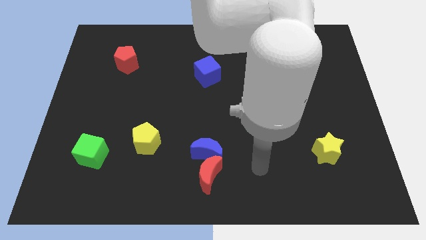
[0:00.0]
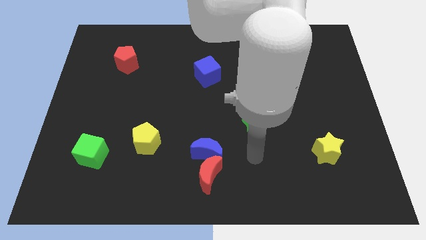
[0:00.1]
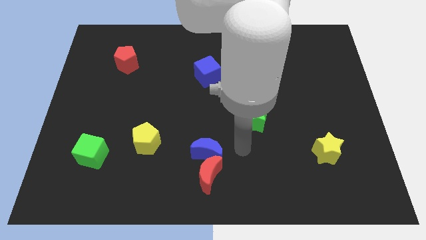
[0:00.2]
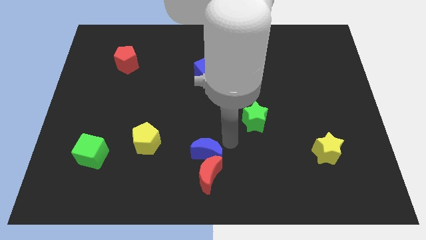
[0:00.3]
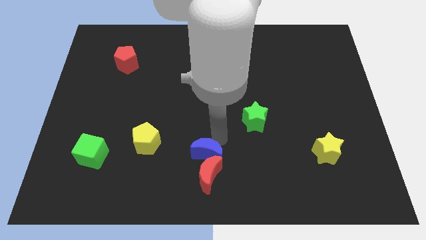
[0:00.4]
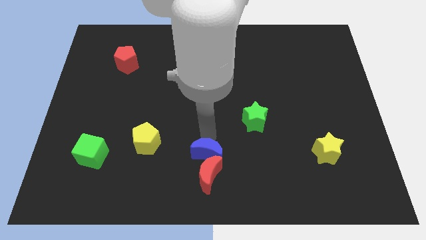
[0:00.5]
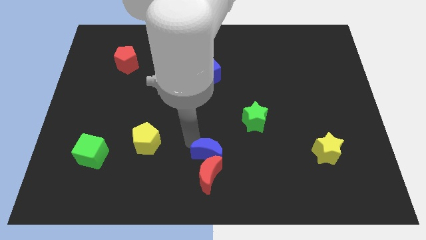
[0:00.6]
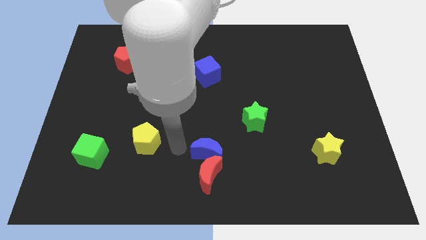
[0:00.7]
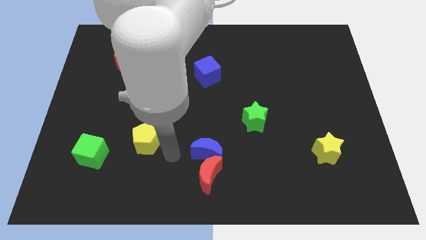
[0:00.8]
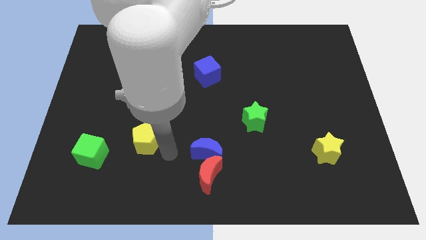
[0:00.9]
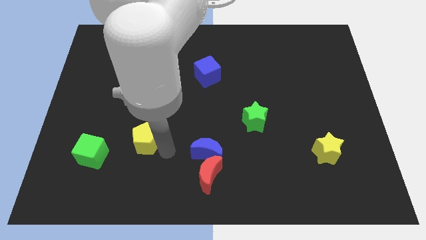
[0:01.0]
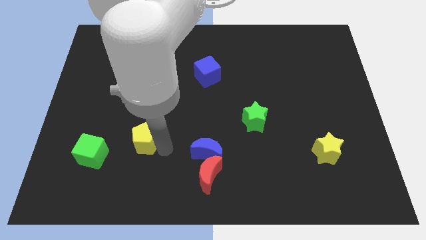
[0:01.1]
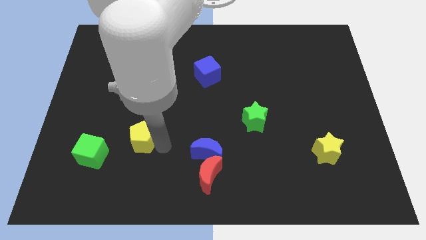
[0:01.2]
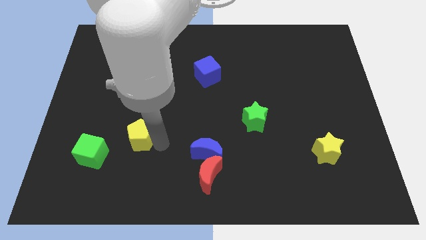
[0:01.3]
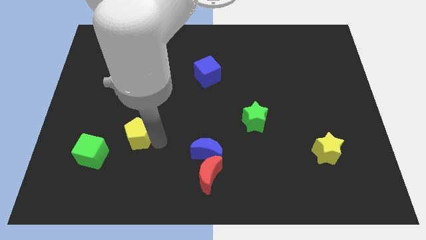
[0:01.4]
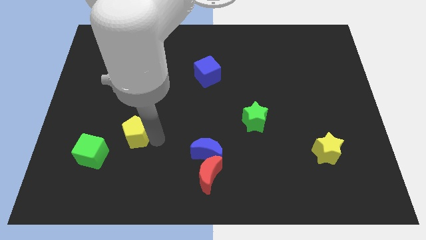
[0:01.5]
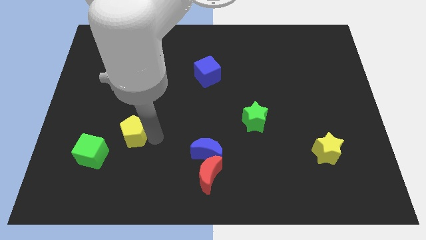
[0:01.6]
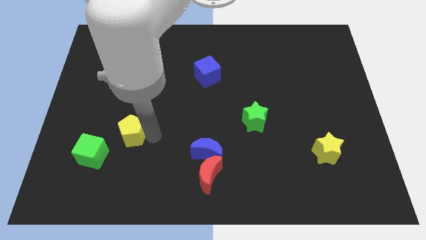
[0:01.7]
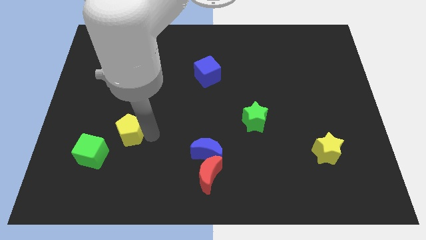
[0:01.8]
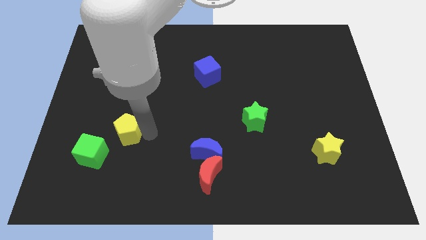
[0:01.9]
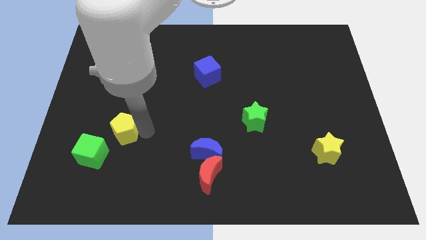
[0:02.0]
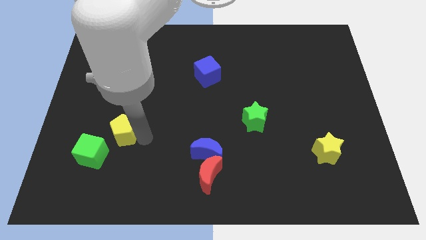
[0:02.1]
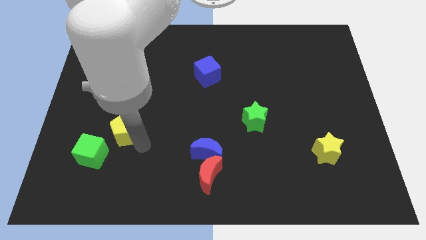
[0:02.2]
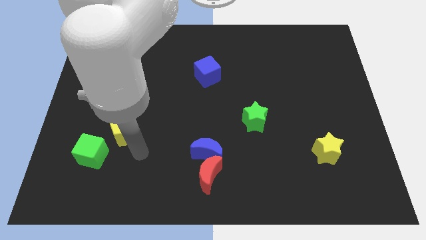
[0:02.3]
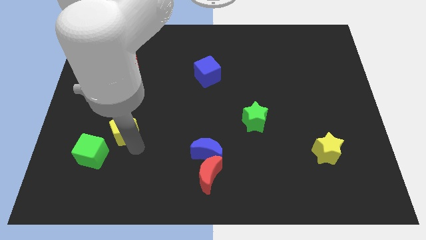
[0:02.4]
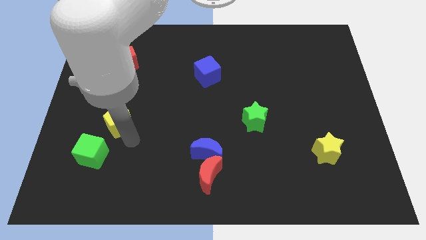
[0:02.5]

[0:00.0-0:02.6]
push the yellow pentagon upwards and then left a little

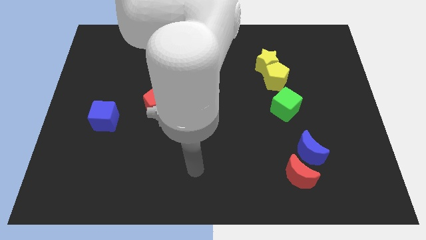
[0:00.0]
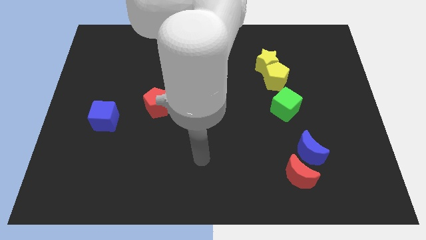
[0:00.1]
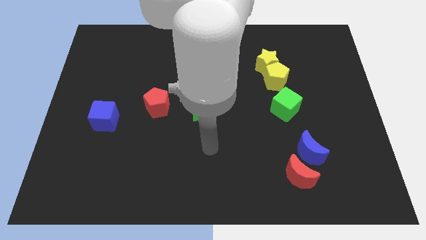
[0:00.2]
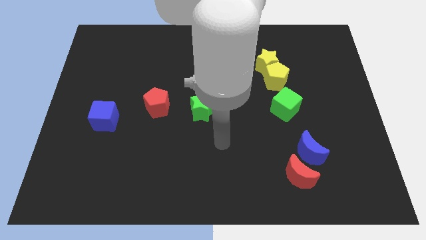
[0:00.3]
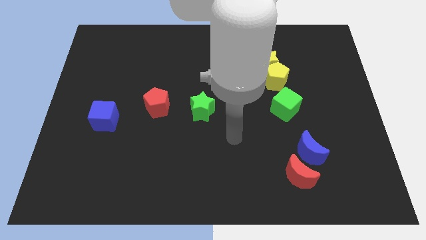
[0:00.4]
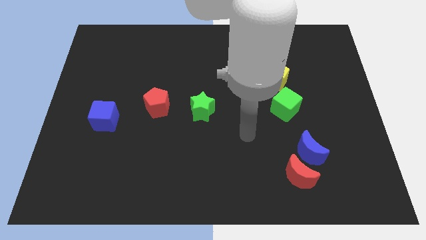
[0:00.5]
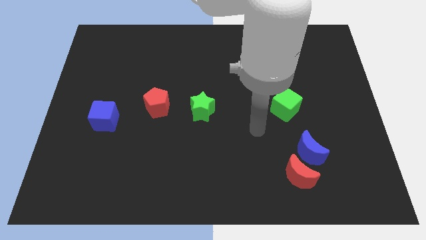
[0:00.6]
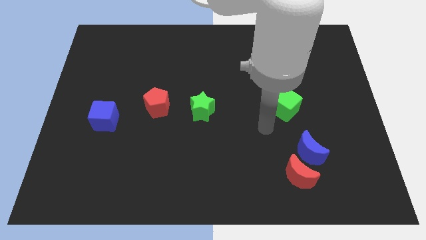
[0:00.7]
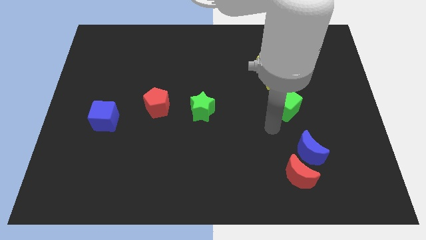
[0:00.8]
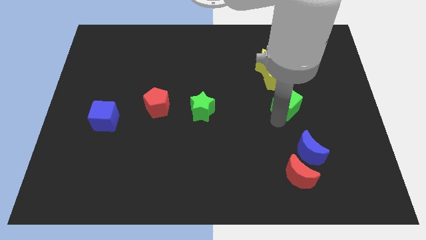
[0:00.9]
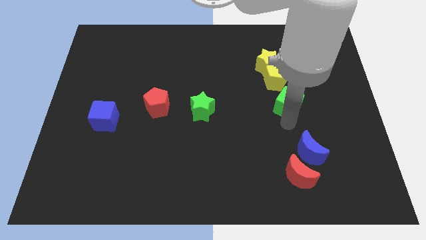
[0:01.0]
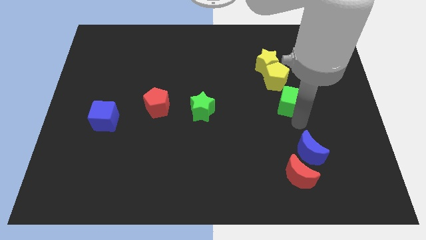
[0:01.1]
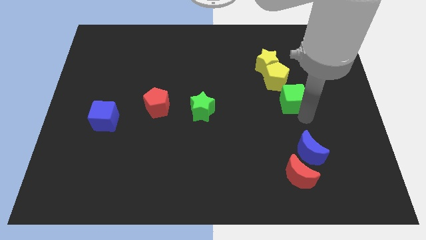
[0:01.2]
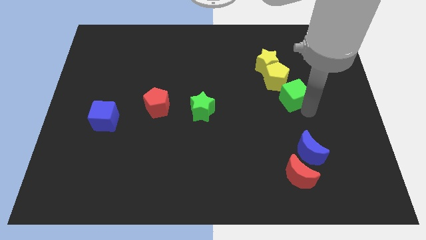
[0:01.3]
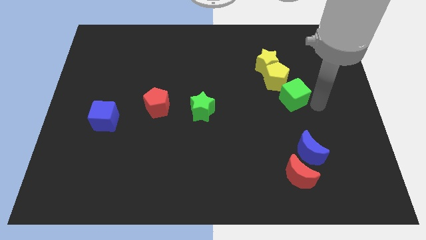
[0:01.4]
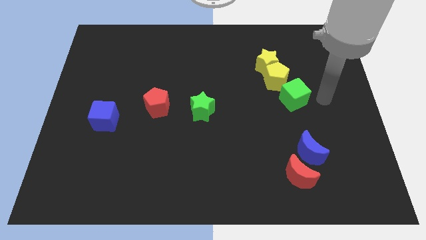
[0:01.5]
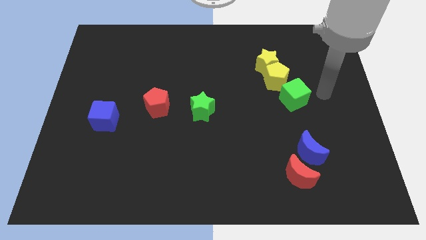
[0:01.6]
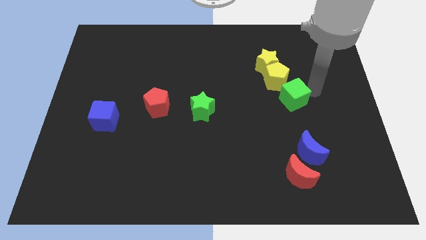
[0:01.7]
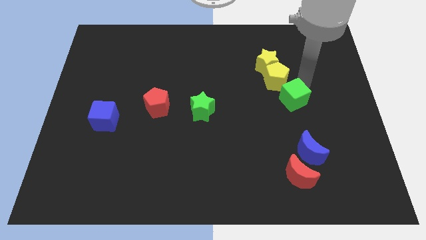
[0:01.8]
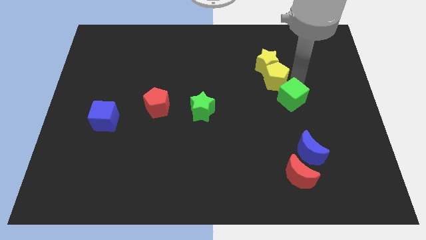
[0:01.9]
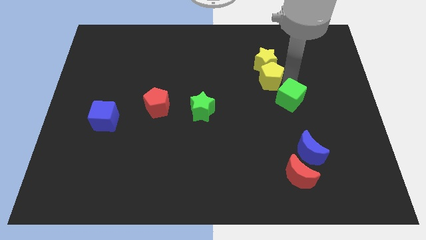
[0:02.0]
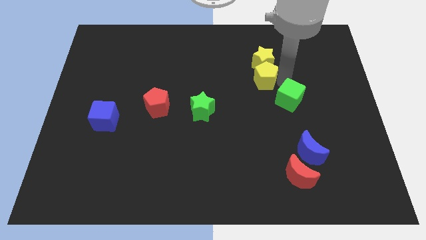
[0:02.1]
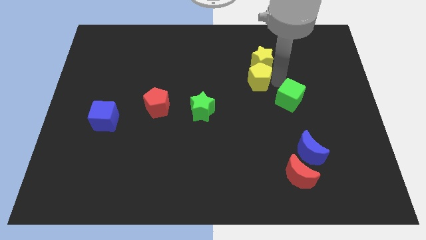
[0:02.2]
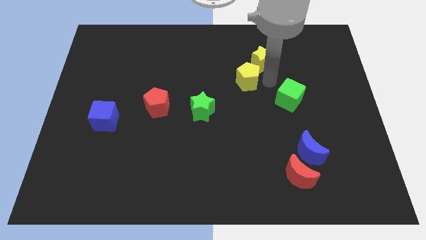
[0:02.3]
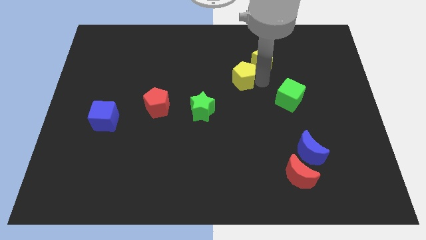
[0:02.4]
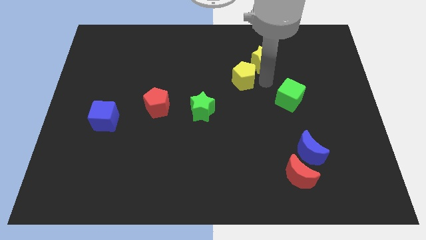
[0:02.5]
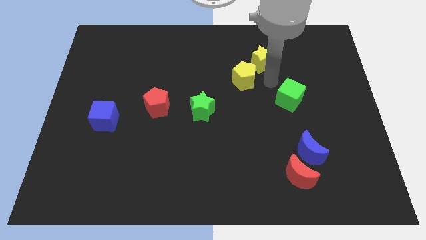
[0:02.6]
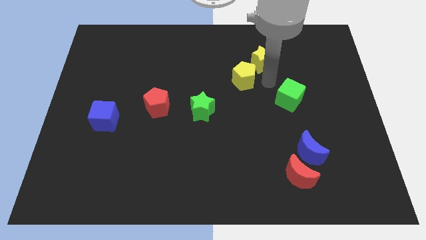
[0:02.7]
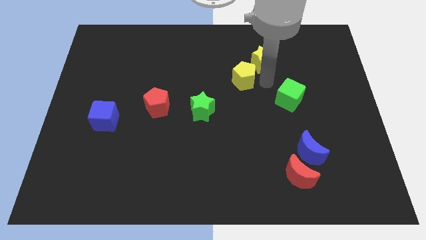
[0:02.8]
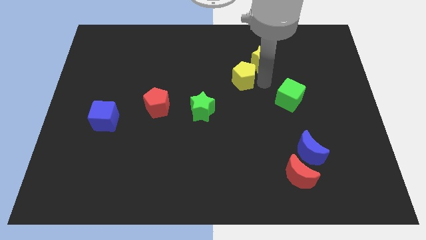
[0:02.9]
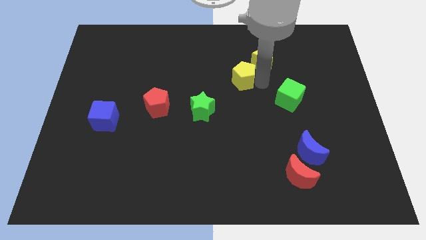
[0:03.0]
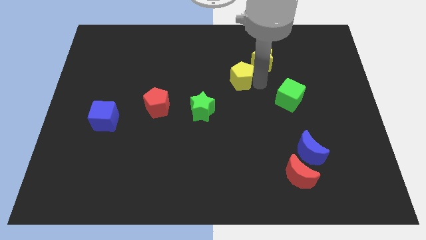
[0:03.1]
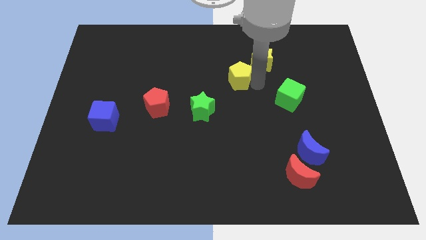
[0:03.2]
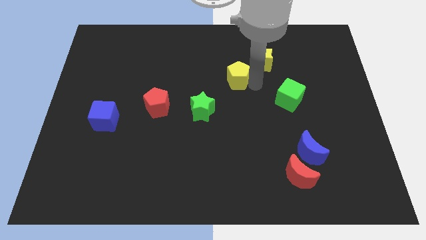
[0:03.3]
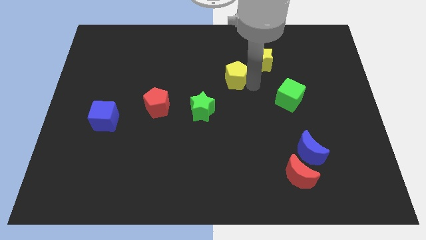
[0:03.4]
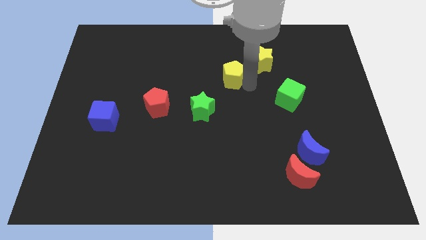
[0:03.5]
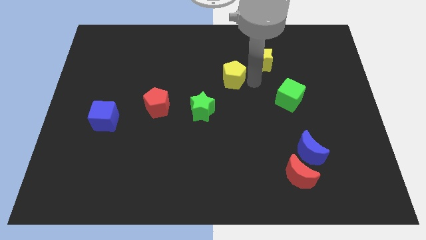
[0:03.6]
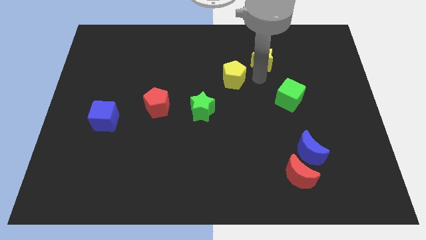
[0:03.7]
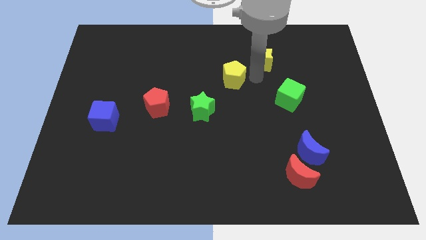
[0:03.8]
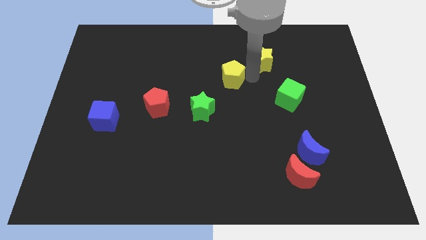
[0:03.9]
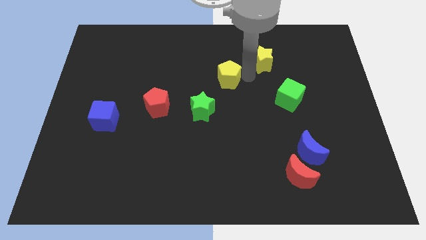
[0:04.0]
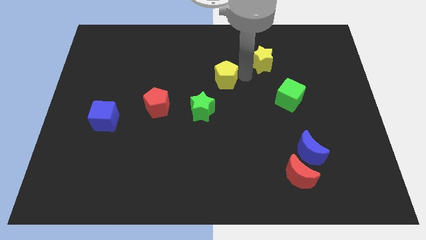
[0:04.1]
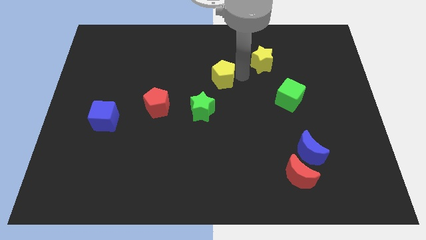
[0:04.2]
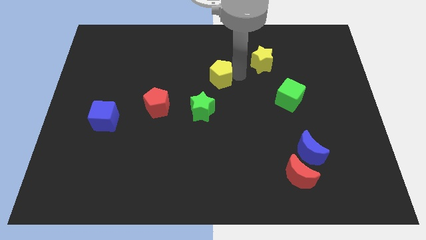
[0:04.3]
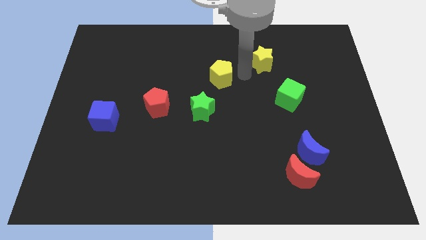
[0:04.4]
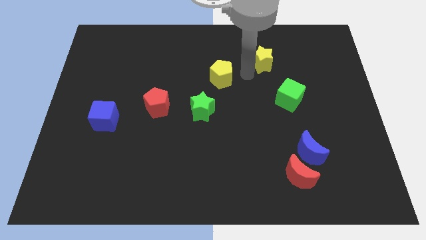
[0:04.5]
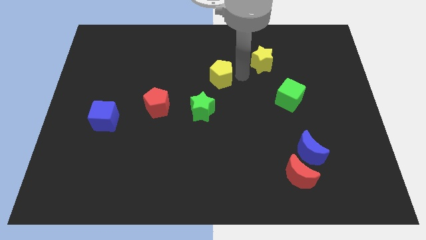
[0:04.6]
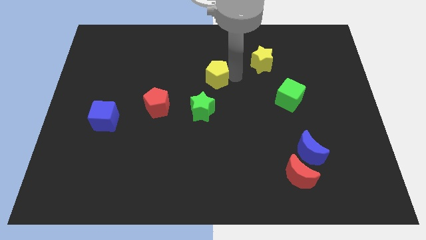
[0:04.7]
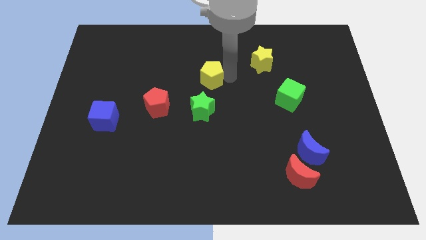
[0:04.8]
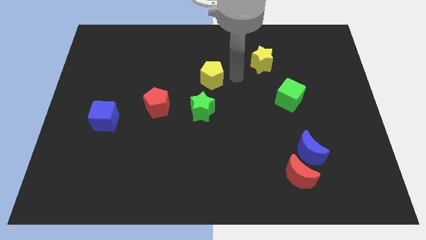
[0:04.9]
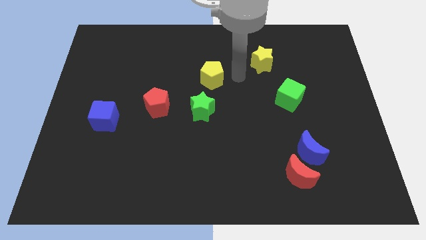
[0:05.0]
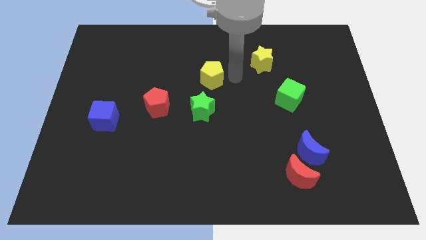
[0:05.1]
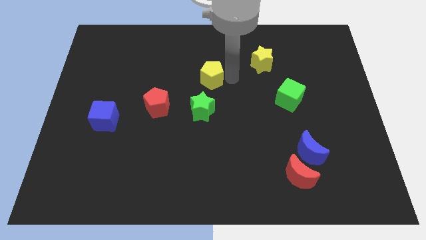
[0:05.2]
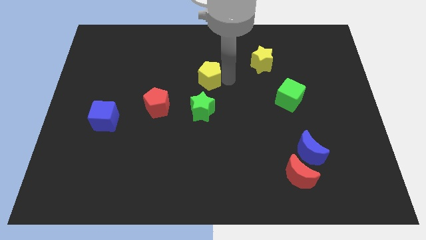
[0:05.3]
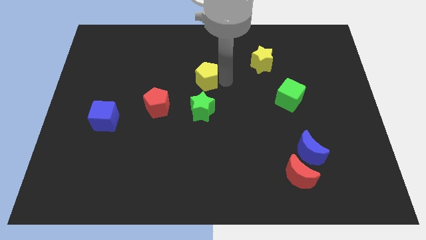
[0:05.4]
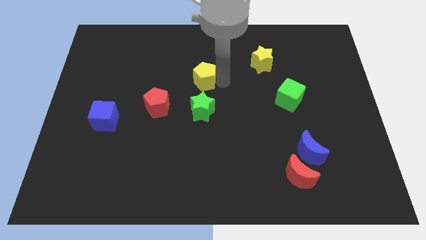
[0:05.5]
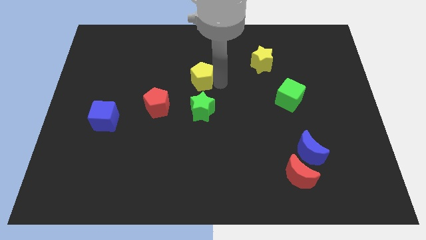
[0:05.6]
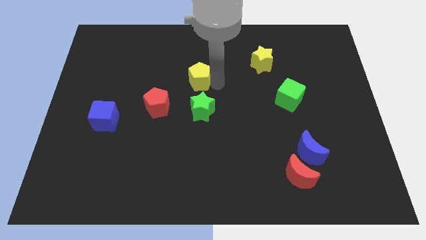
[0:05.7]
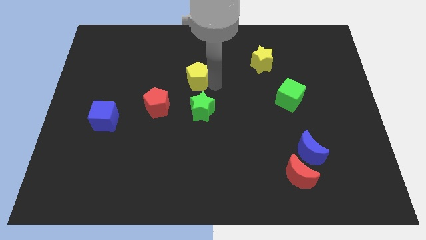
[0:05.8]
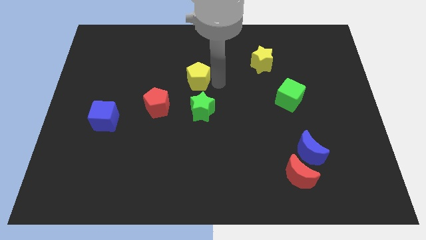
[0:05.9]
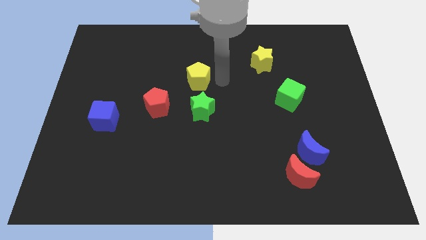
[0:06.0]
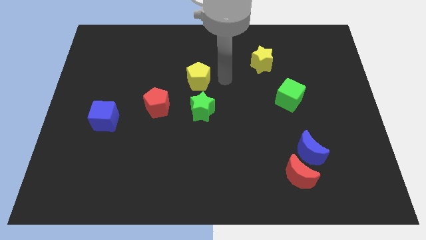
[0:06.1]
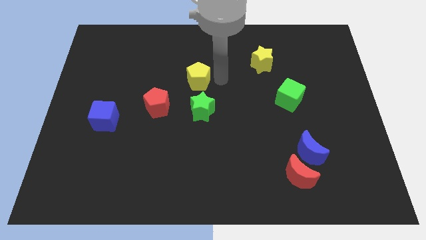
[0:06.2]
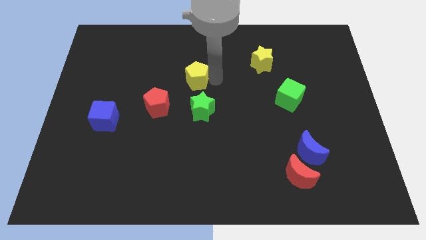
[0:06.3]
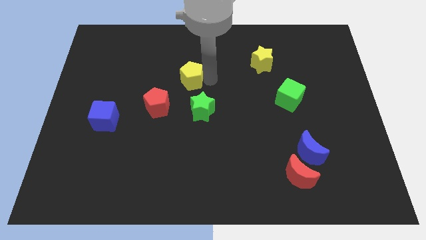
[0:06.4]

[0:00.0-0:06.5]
slide the yellow pentagon left
